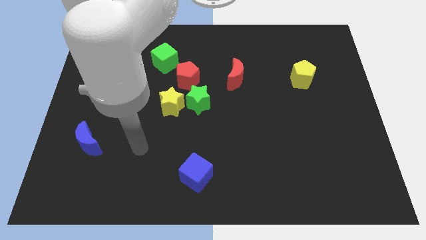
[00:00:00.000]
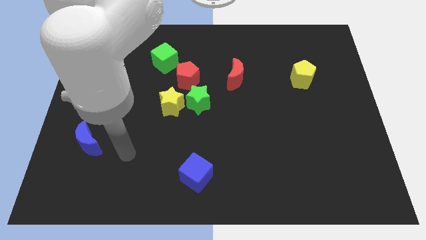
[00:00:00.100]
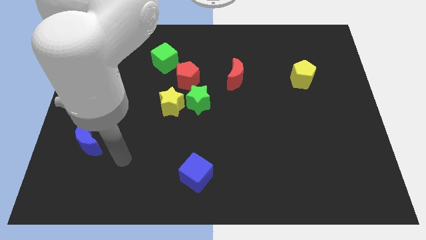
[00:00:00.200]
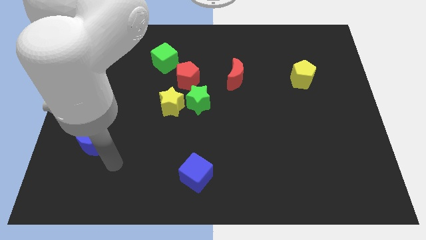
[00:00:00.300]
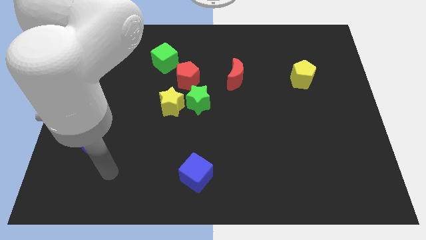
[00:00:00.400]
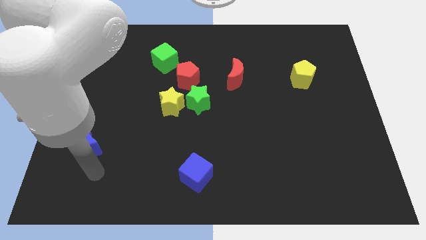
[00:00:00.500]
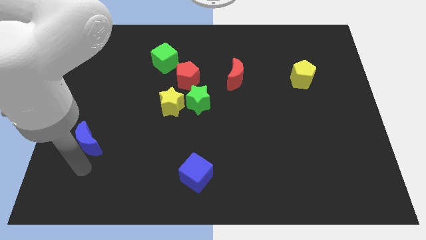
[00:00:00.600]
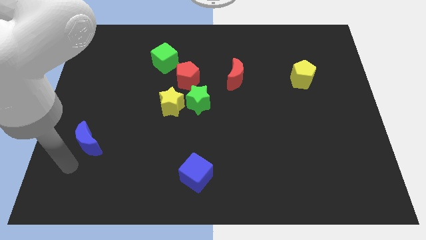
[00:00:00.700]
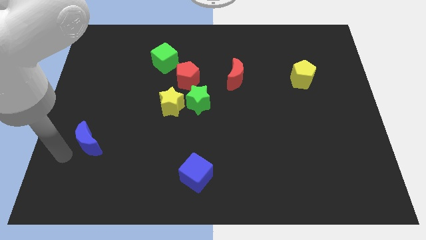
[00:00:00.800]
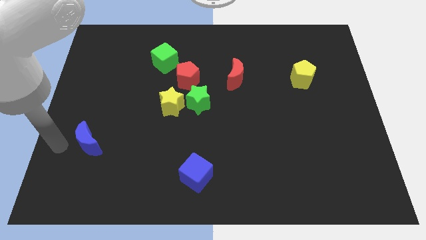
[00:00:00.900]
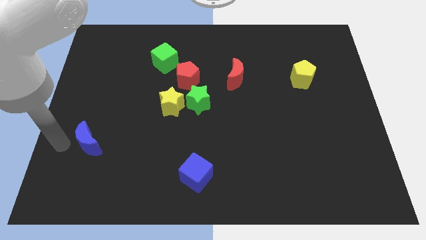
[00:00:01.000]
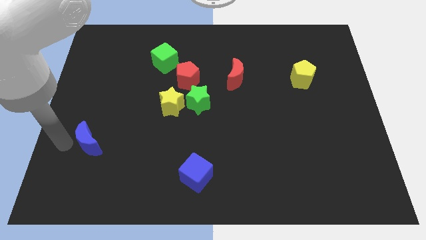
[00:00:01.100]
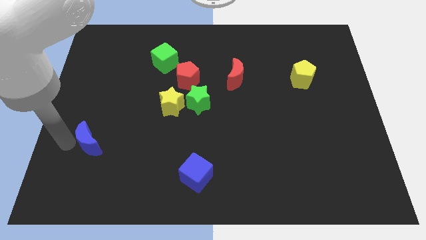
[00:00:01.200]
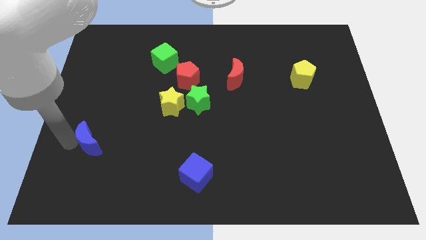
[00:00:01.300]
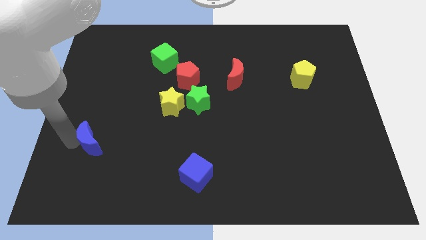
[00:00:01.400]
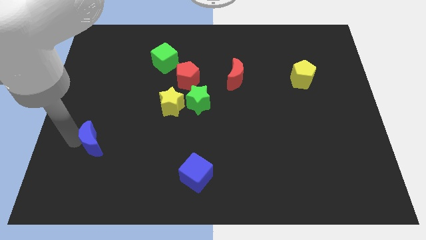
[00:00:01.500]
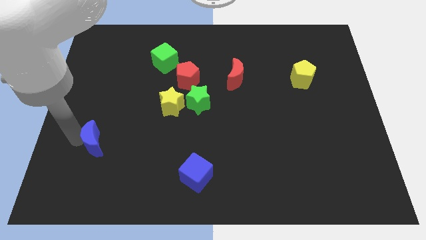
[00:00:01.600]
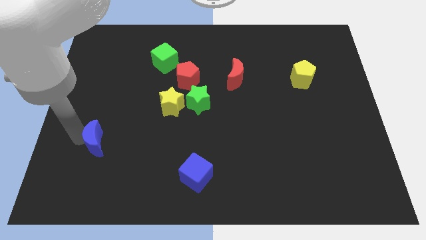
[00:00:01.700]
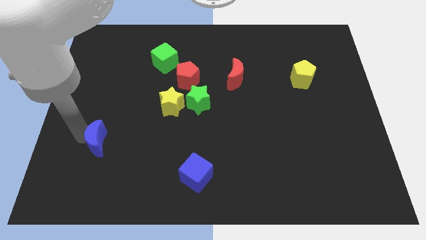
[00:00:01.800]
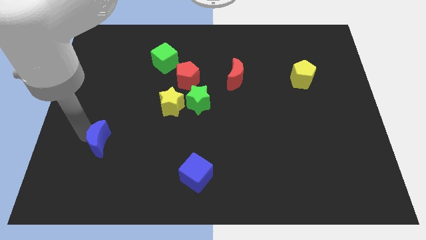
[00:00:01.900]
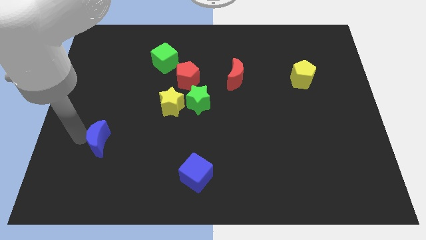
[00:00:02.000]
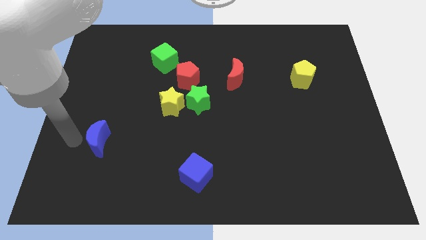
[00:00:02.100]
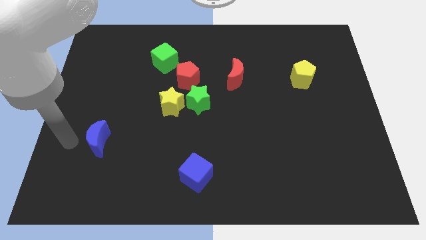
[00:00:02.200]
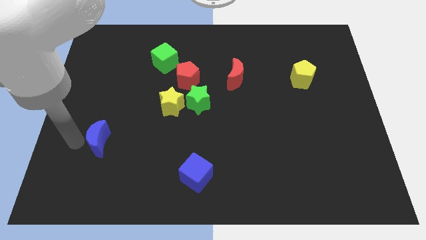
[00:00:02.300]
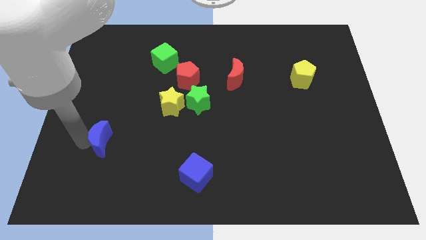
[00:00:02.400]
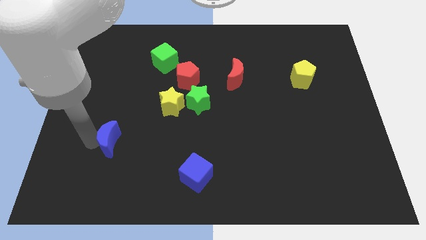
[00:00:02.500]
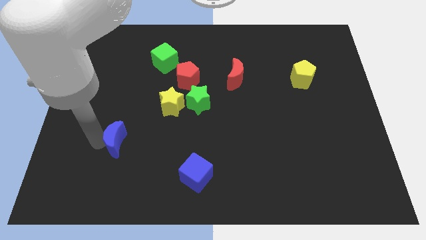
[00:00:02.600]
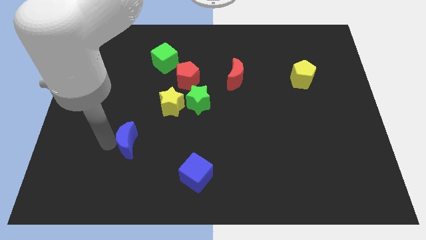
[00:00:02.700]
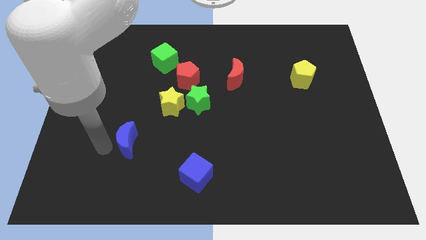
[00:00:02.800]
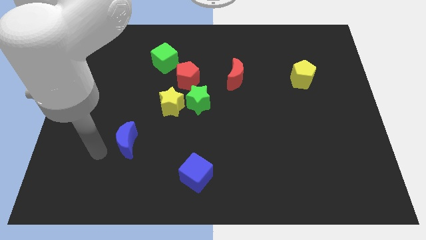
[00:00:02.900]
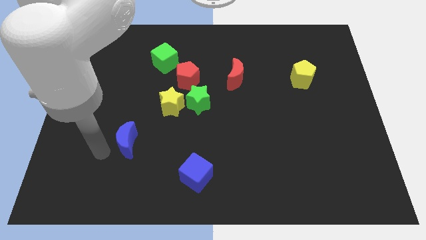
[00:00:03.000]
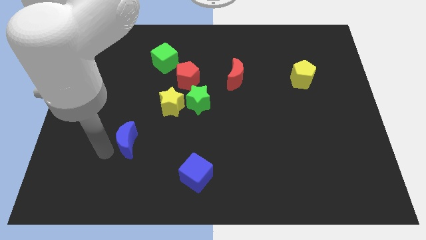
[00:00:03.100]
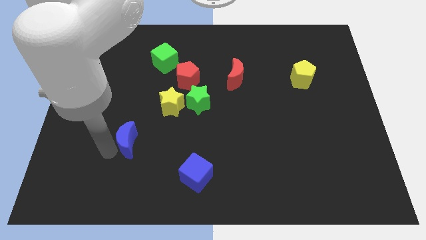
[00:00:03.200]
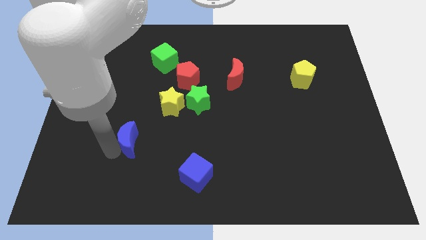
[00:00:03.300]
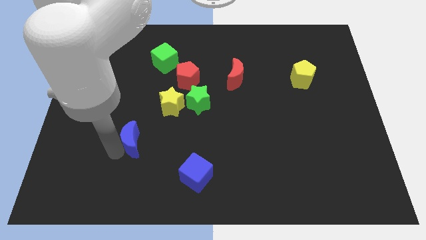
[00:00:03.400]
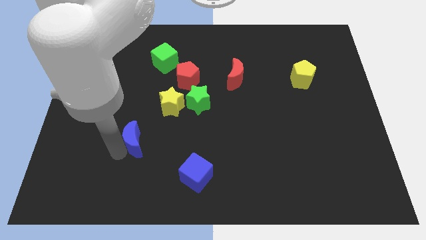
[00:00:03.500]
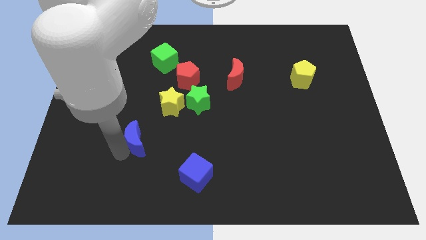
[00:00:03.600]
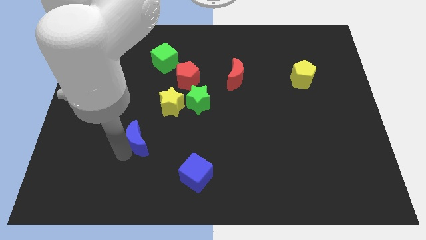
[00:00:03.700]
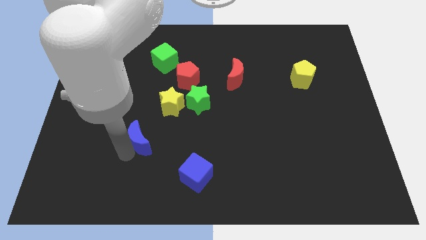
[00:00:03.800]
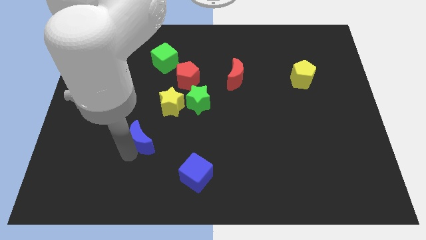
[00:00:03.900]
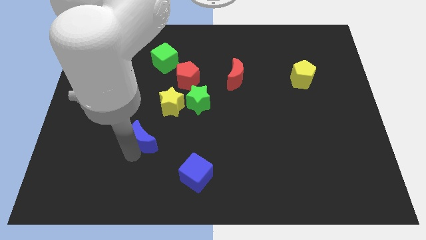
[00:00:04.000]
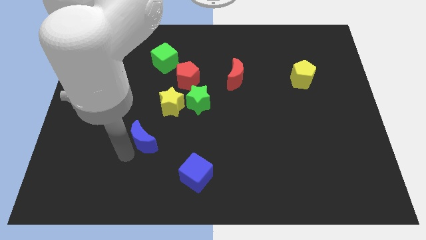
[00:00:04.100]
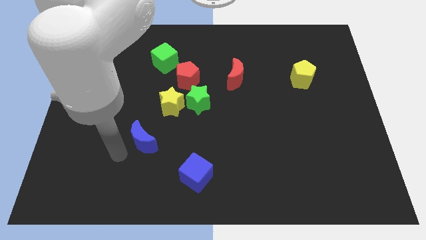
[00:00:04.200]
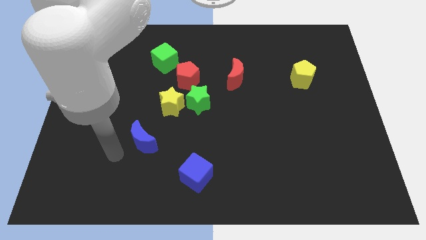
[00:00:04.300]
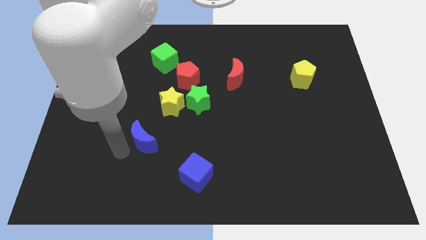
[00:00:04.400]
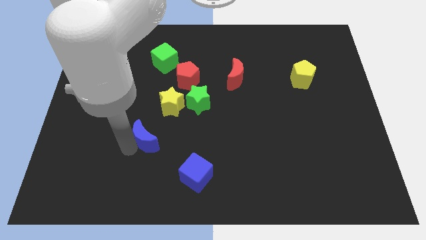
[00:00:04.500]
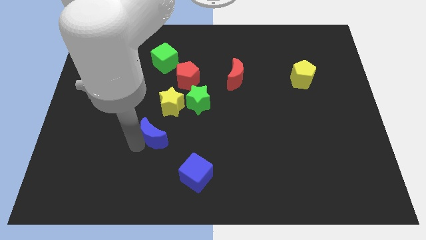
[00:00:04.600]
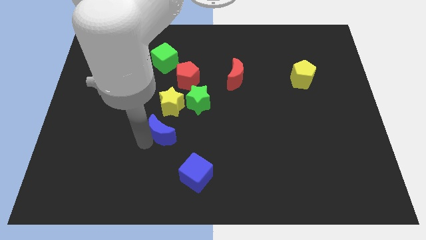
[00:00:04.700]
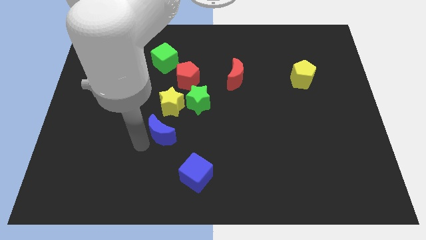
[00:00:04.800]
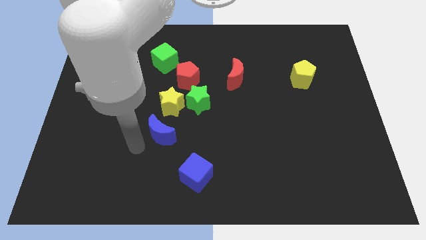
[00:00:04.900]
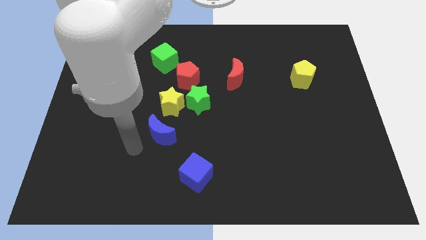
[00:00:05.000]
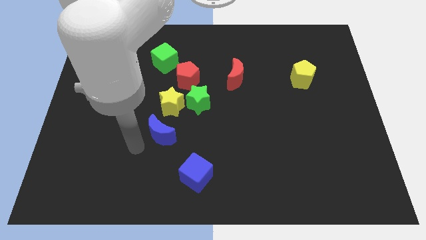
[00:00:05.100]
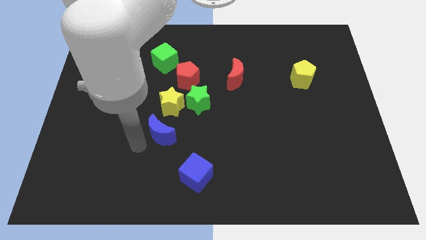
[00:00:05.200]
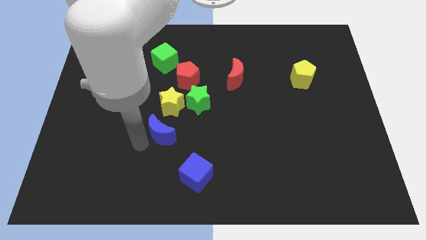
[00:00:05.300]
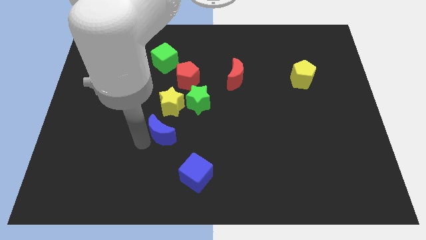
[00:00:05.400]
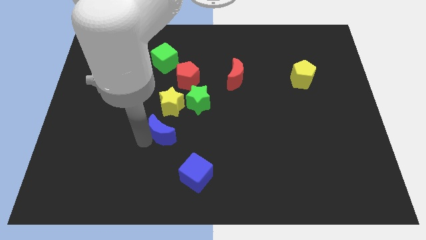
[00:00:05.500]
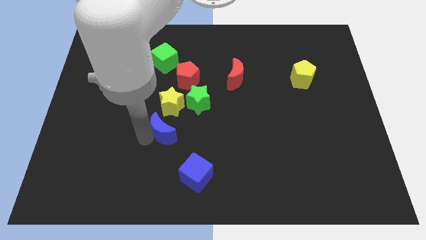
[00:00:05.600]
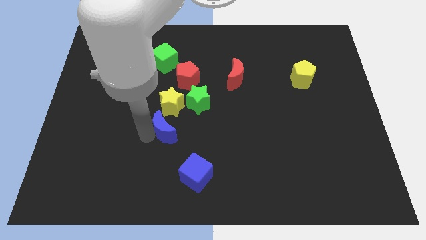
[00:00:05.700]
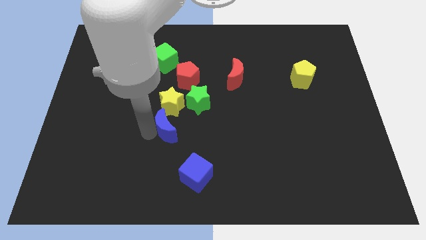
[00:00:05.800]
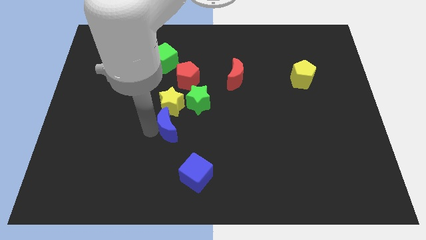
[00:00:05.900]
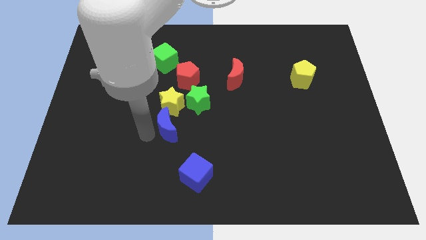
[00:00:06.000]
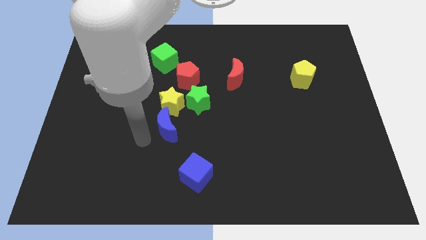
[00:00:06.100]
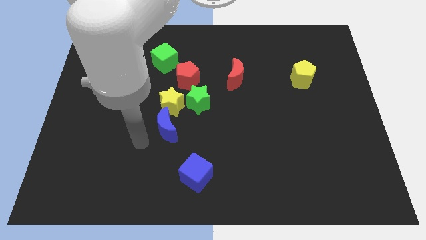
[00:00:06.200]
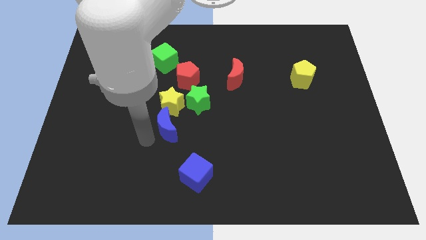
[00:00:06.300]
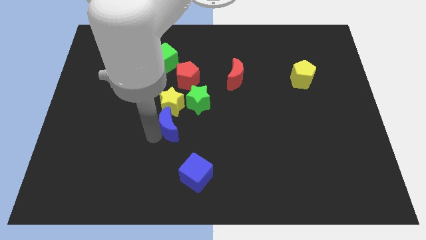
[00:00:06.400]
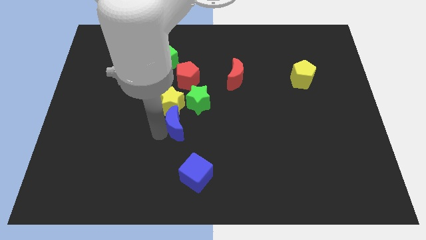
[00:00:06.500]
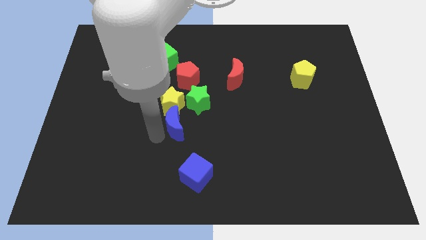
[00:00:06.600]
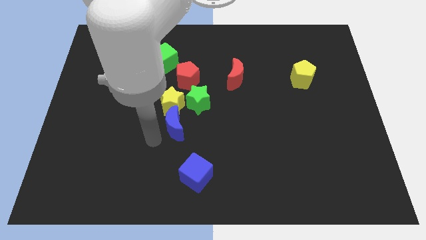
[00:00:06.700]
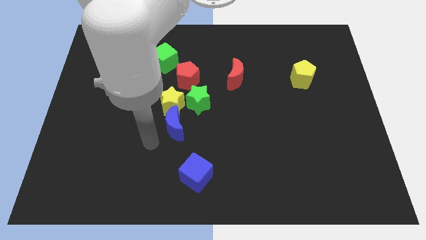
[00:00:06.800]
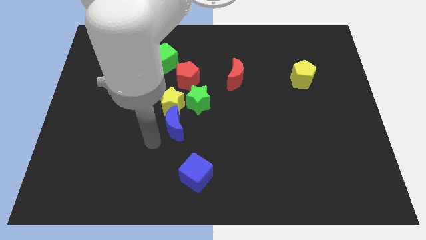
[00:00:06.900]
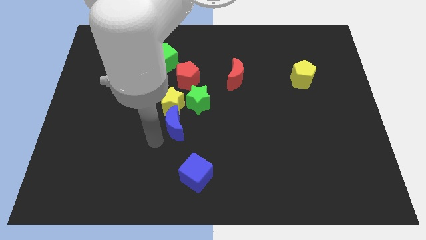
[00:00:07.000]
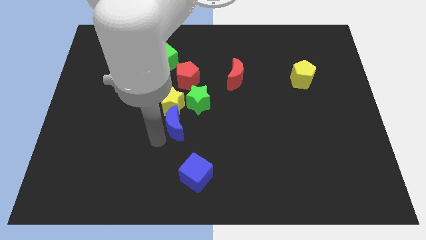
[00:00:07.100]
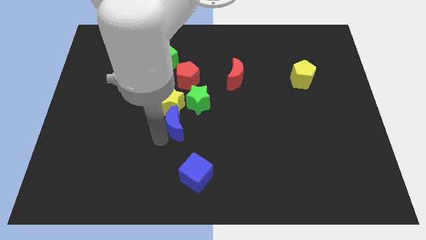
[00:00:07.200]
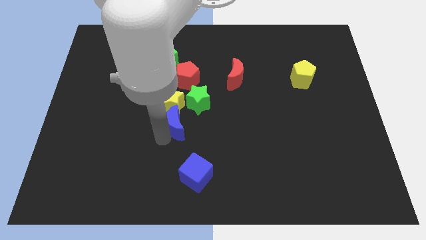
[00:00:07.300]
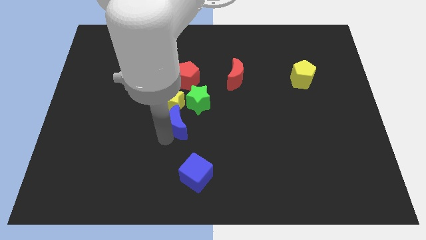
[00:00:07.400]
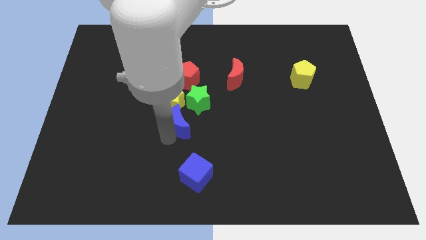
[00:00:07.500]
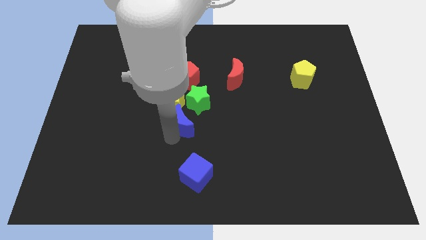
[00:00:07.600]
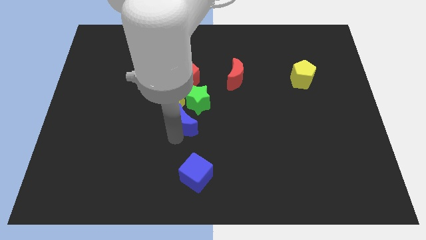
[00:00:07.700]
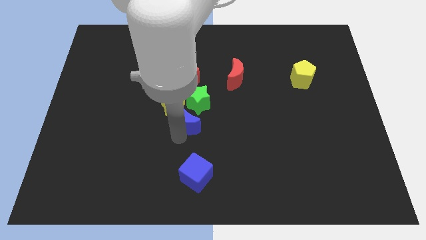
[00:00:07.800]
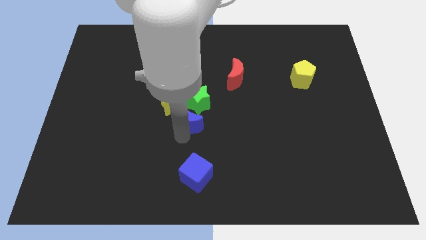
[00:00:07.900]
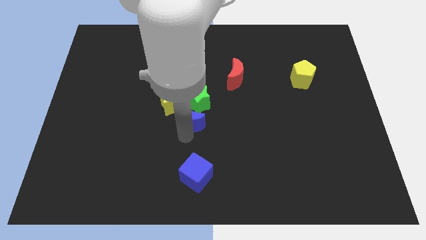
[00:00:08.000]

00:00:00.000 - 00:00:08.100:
put the blue moon to the green star
